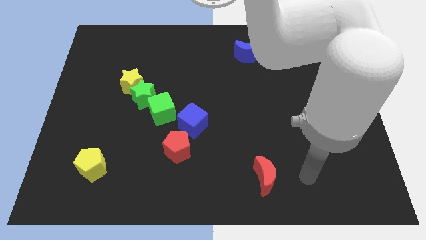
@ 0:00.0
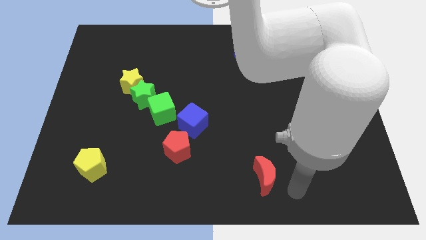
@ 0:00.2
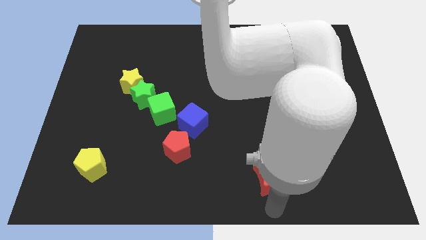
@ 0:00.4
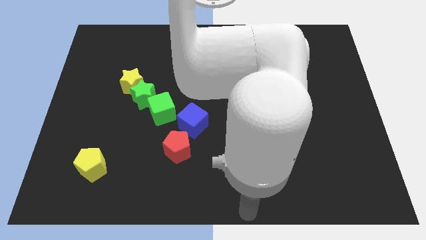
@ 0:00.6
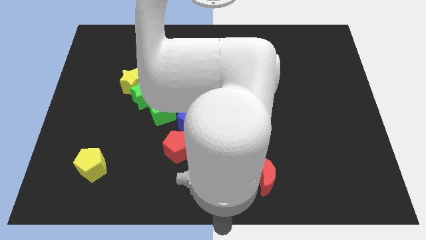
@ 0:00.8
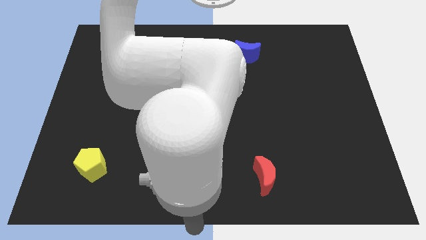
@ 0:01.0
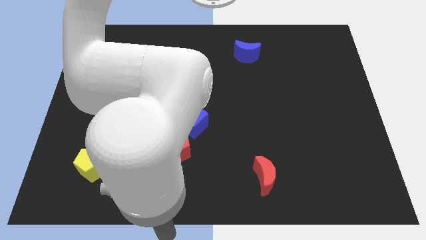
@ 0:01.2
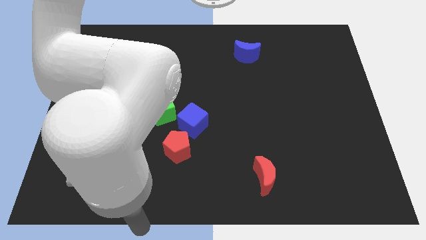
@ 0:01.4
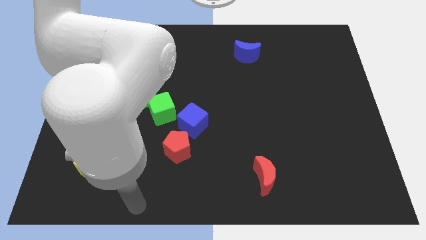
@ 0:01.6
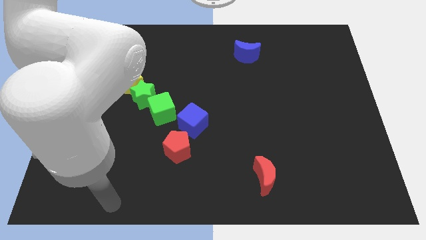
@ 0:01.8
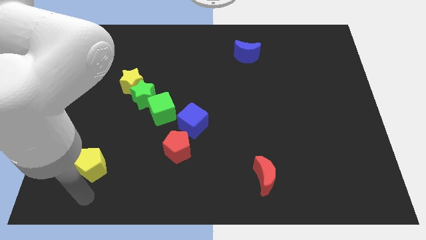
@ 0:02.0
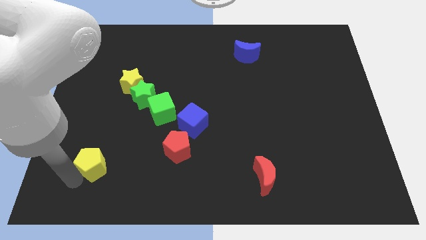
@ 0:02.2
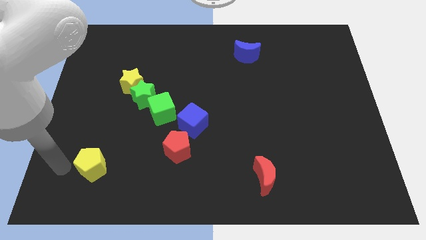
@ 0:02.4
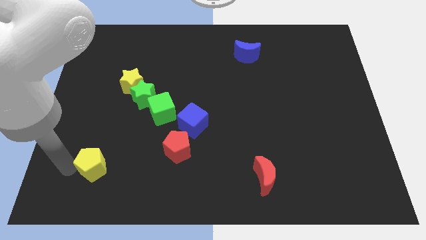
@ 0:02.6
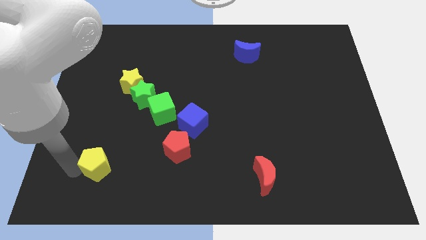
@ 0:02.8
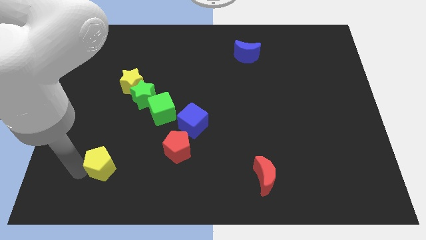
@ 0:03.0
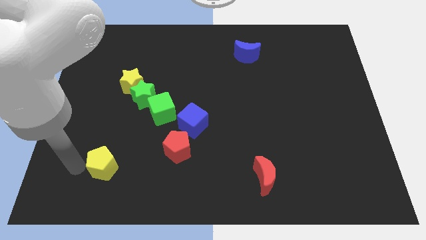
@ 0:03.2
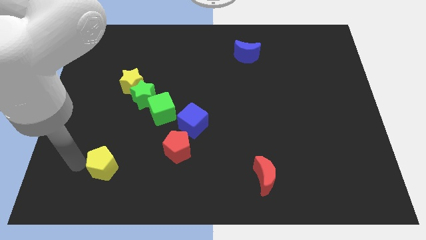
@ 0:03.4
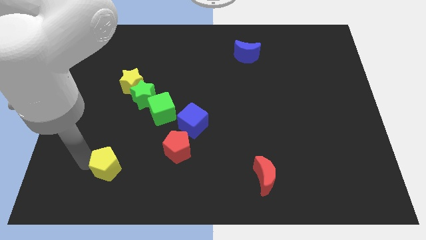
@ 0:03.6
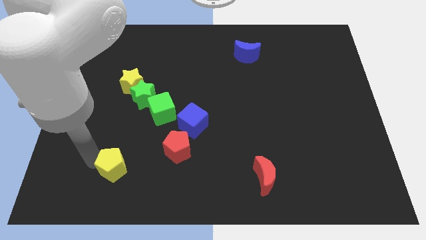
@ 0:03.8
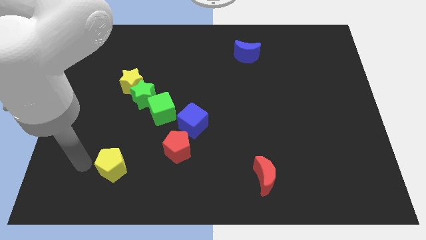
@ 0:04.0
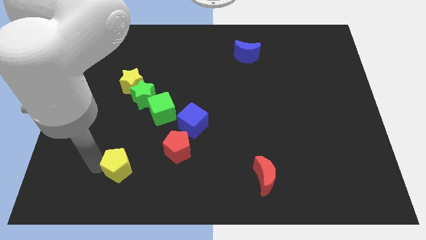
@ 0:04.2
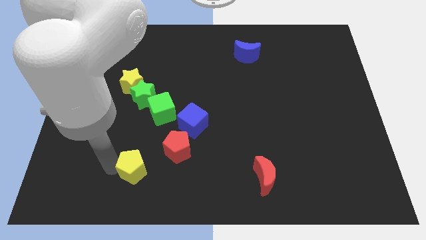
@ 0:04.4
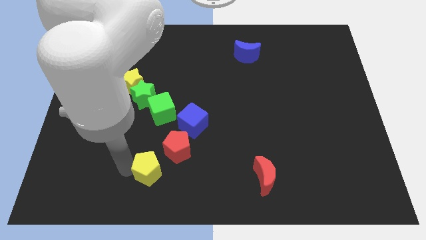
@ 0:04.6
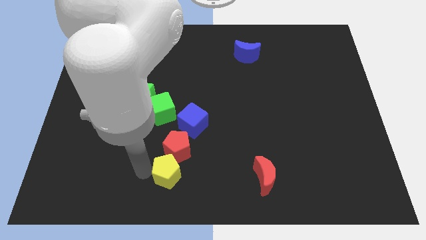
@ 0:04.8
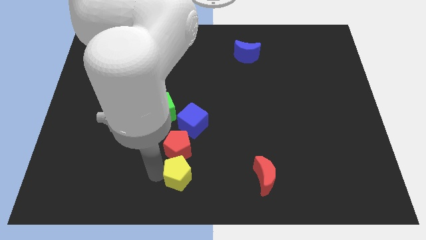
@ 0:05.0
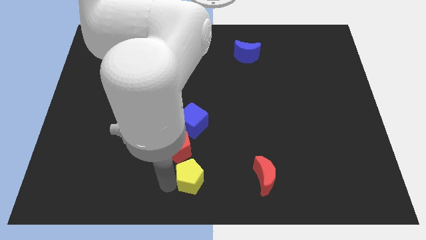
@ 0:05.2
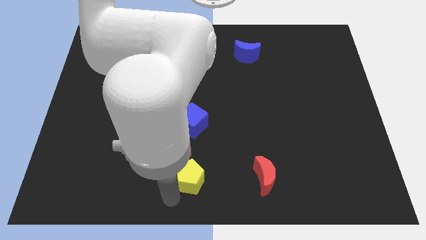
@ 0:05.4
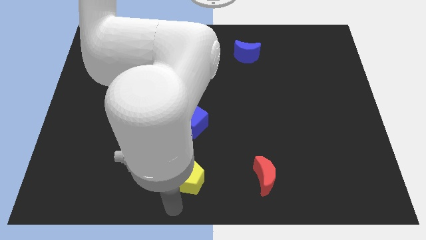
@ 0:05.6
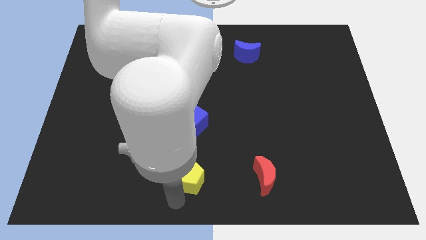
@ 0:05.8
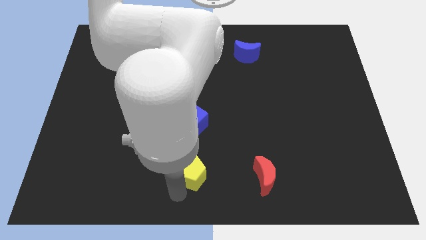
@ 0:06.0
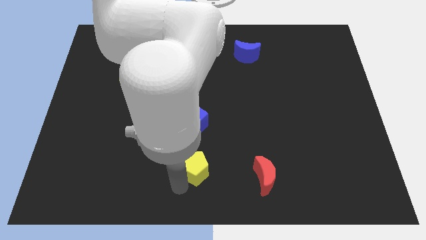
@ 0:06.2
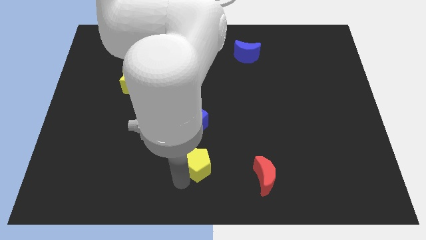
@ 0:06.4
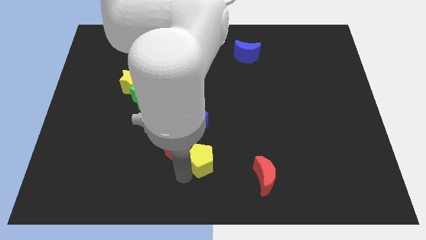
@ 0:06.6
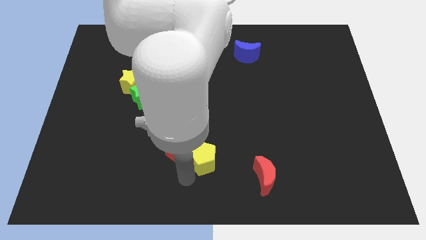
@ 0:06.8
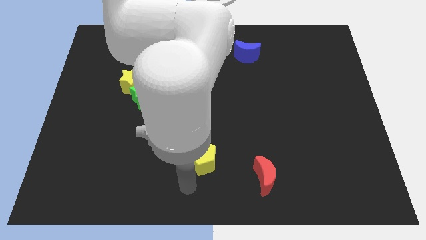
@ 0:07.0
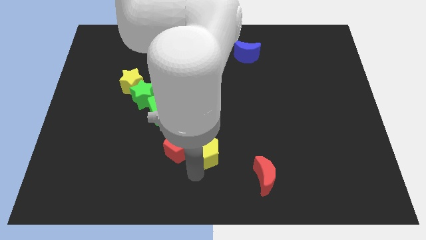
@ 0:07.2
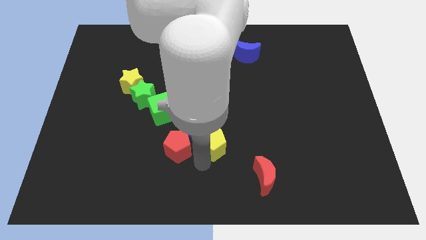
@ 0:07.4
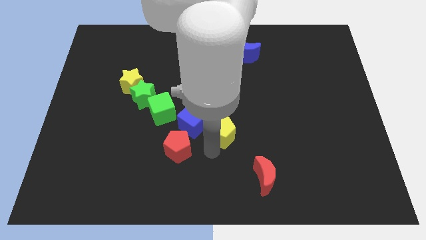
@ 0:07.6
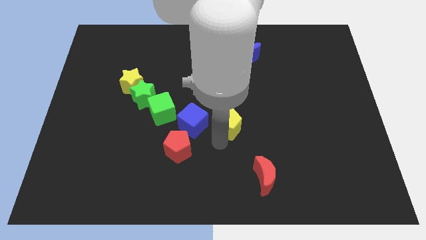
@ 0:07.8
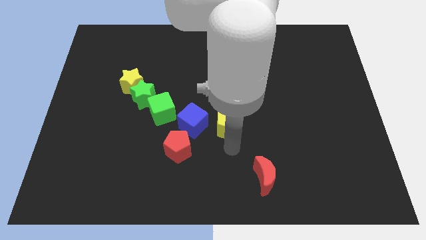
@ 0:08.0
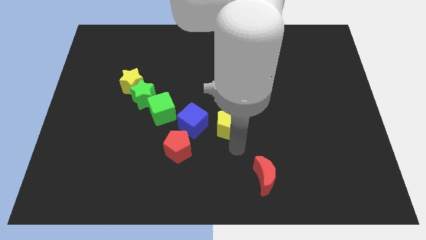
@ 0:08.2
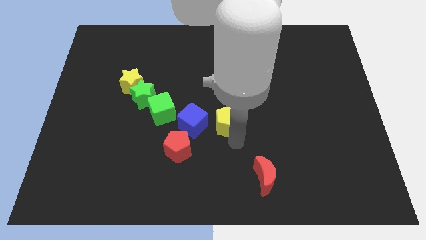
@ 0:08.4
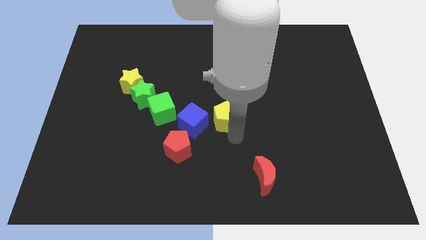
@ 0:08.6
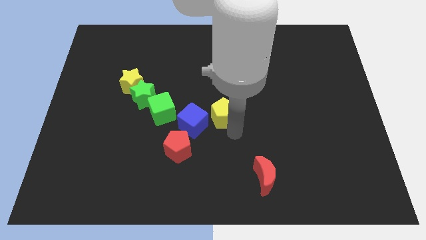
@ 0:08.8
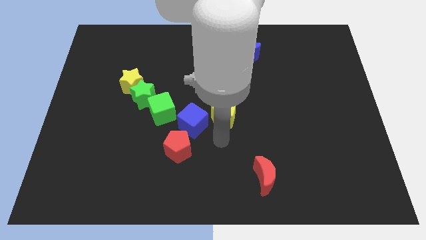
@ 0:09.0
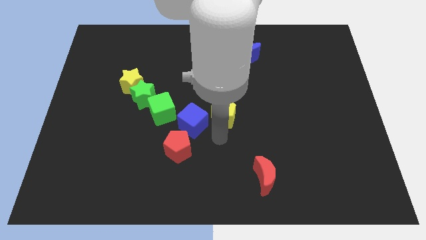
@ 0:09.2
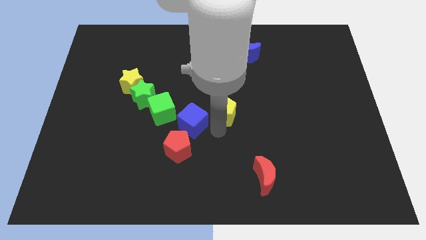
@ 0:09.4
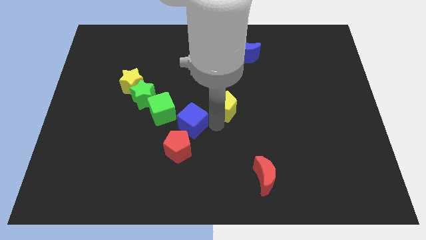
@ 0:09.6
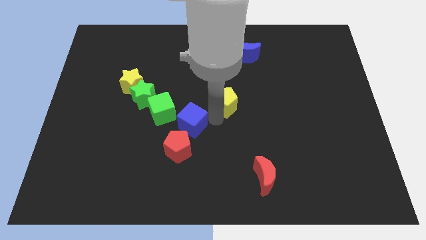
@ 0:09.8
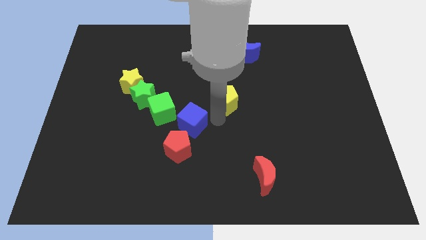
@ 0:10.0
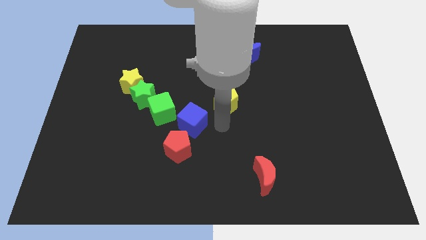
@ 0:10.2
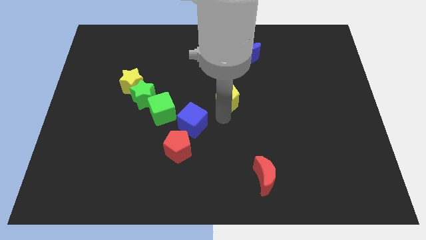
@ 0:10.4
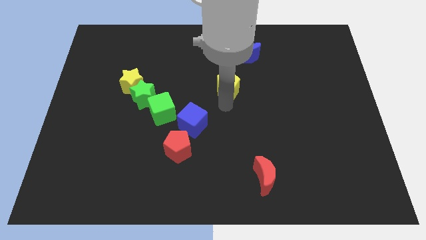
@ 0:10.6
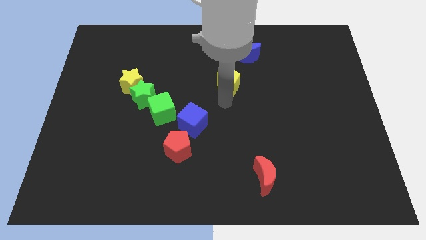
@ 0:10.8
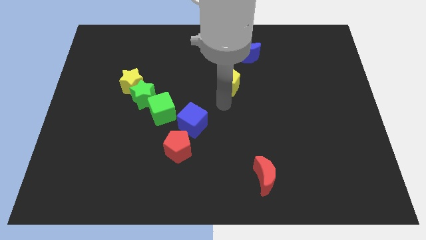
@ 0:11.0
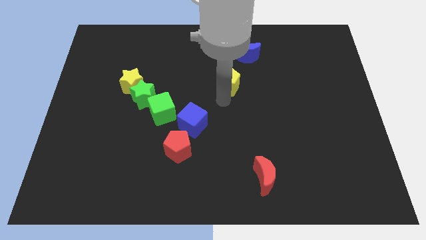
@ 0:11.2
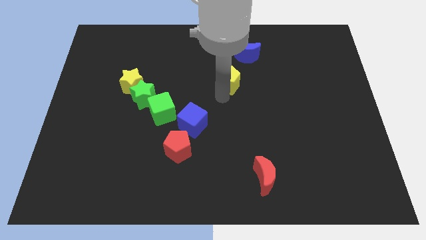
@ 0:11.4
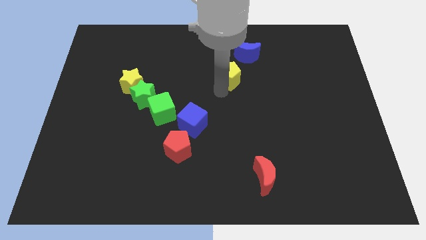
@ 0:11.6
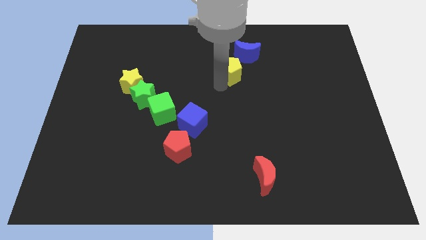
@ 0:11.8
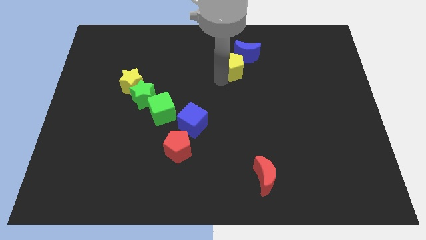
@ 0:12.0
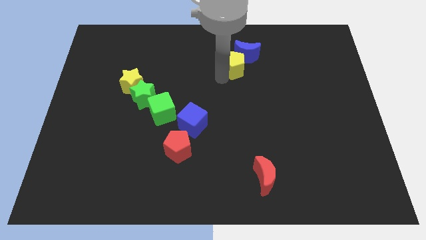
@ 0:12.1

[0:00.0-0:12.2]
put the yellow pentagon to the blue moon

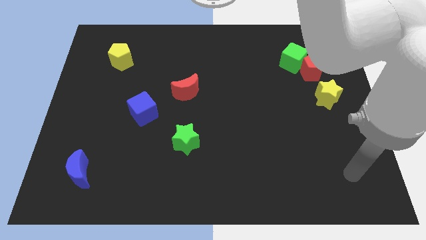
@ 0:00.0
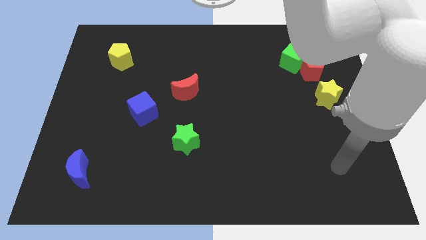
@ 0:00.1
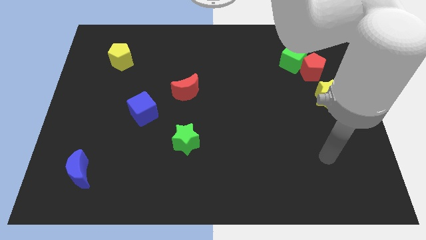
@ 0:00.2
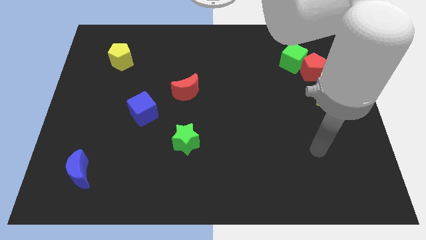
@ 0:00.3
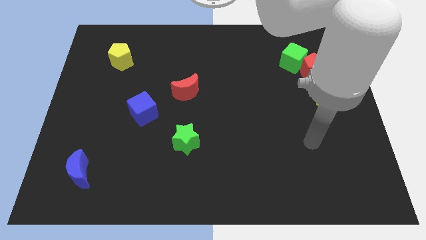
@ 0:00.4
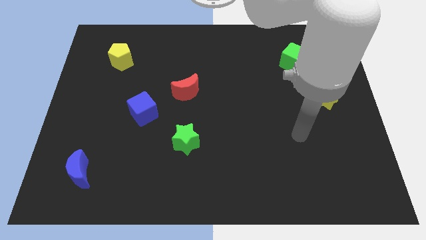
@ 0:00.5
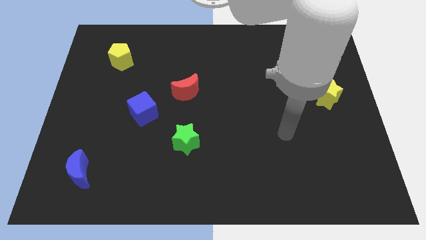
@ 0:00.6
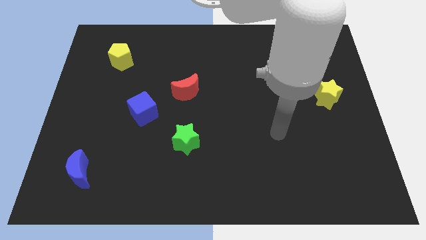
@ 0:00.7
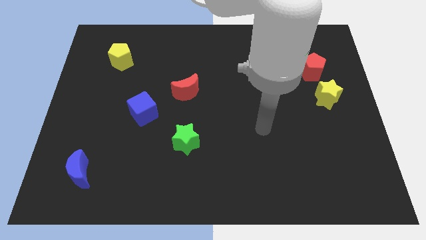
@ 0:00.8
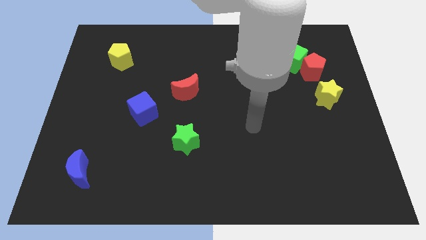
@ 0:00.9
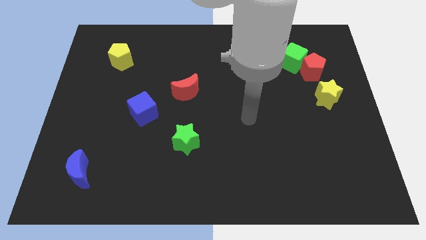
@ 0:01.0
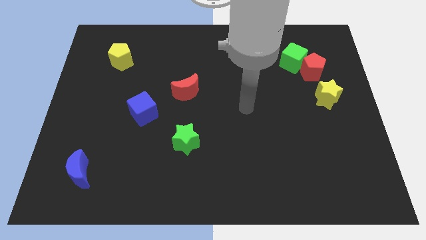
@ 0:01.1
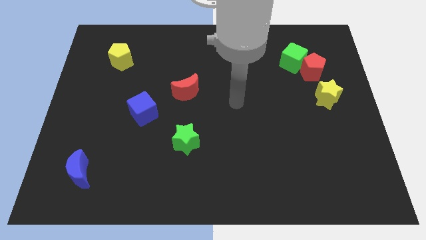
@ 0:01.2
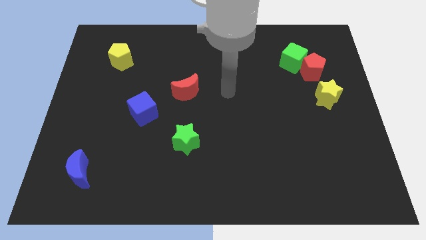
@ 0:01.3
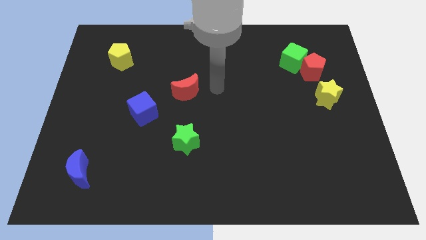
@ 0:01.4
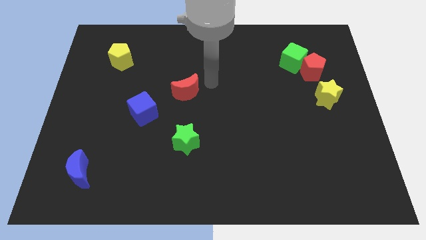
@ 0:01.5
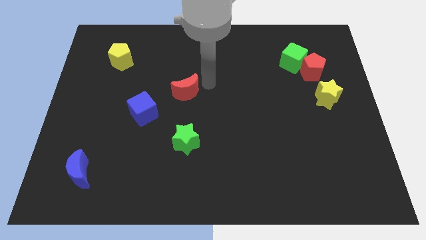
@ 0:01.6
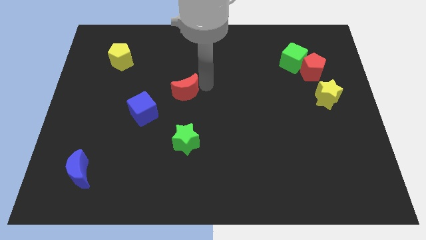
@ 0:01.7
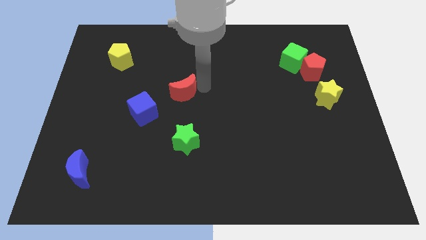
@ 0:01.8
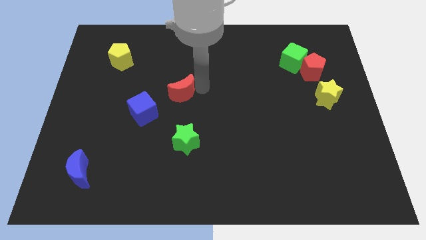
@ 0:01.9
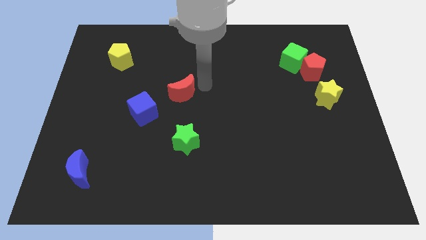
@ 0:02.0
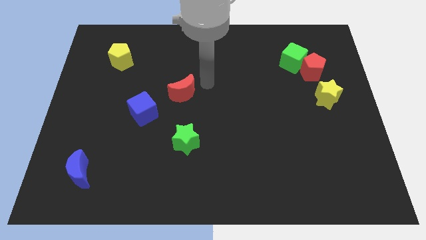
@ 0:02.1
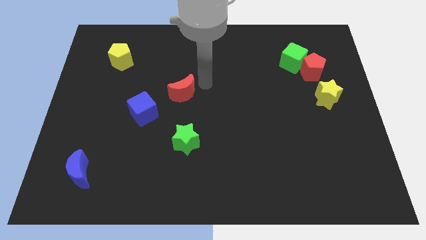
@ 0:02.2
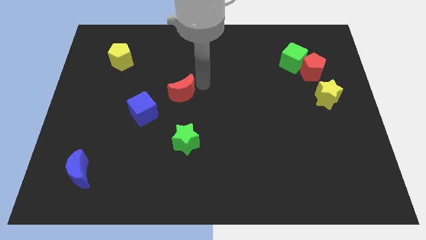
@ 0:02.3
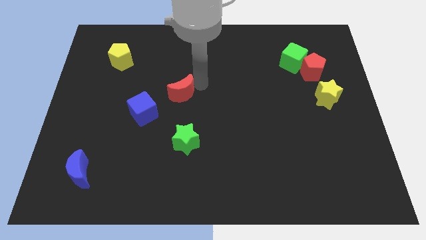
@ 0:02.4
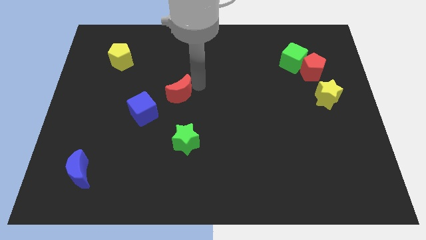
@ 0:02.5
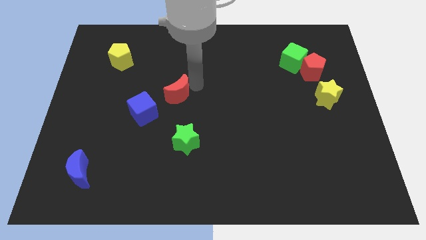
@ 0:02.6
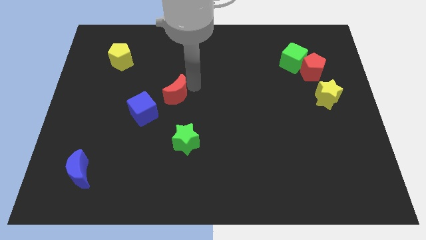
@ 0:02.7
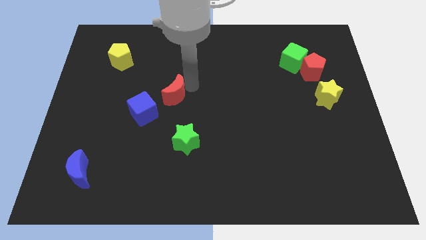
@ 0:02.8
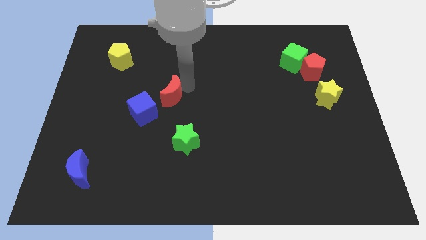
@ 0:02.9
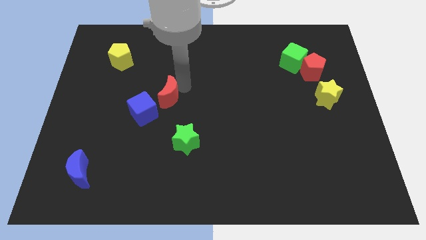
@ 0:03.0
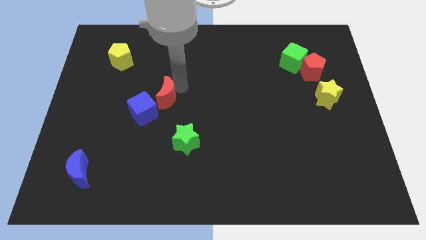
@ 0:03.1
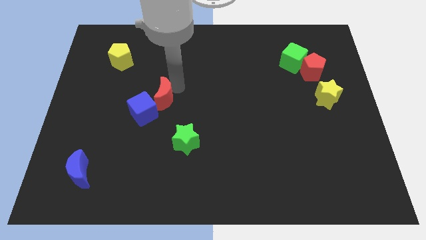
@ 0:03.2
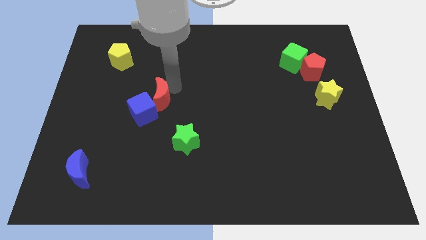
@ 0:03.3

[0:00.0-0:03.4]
put the red moon towards the blue cube
